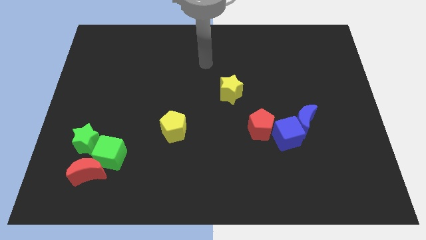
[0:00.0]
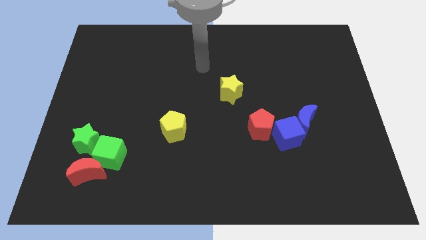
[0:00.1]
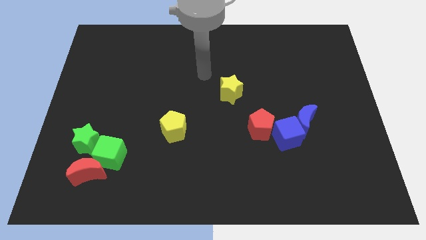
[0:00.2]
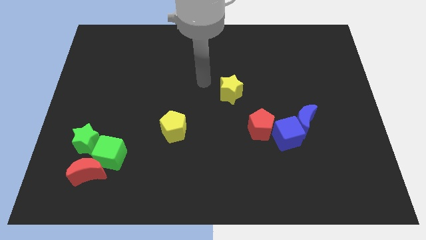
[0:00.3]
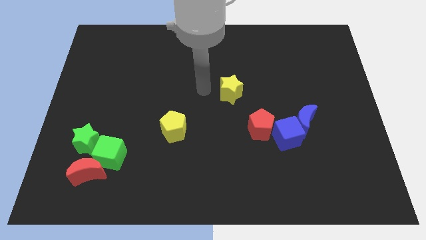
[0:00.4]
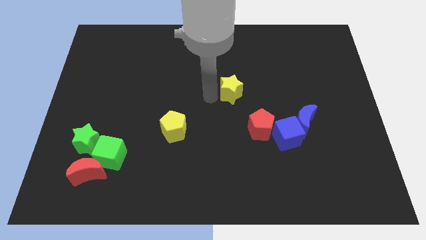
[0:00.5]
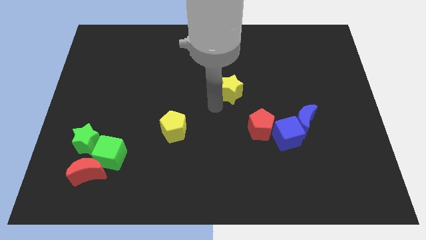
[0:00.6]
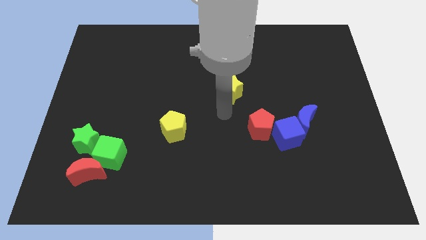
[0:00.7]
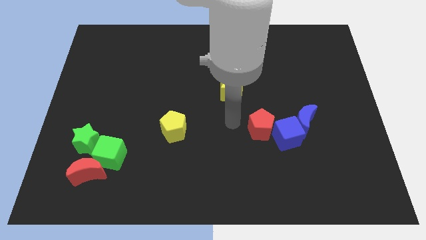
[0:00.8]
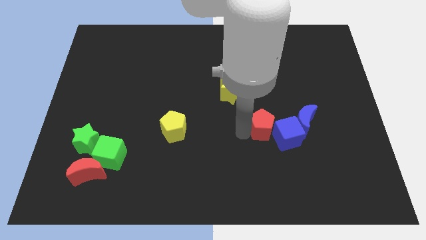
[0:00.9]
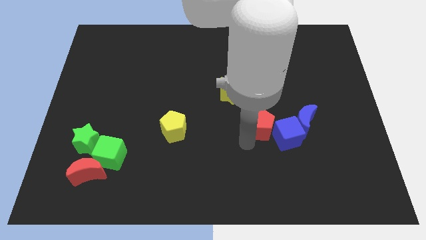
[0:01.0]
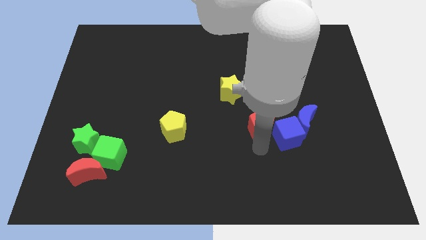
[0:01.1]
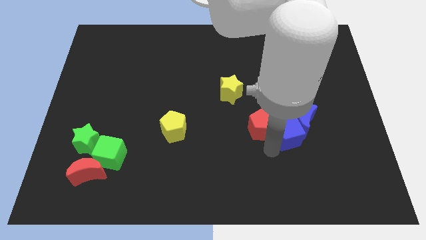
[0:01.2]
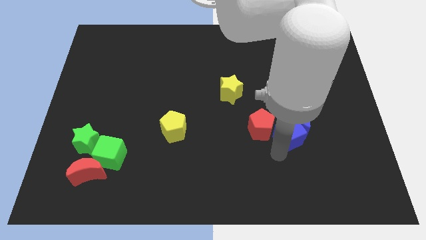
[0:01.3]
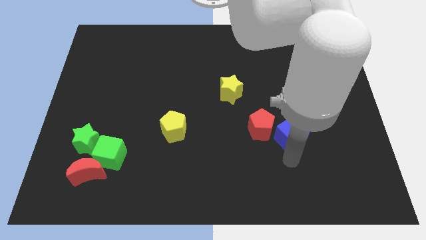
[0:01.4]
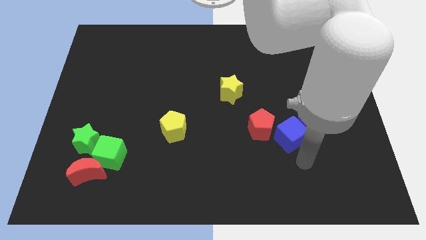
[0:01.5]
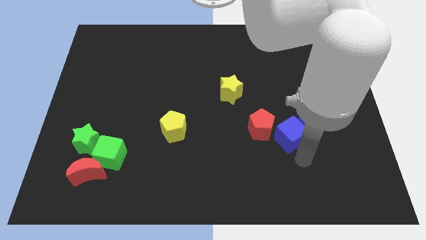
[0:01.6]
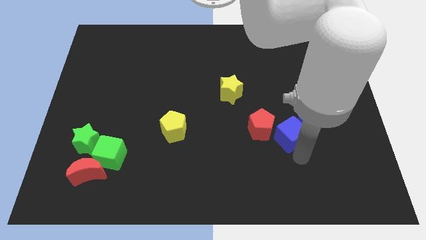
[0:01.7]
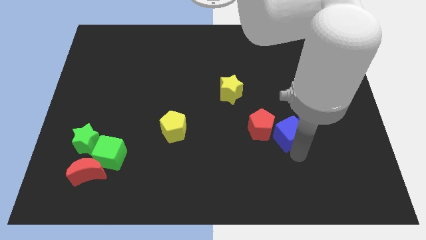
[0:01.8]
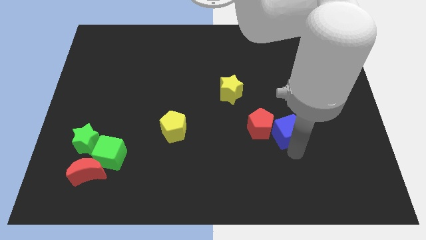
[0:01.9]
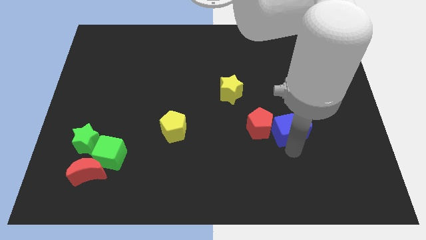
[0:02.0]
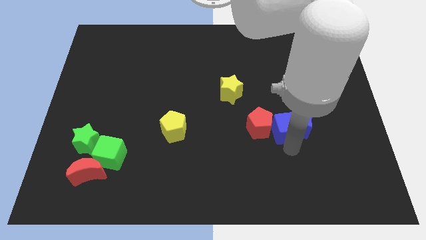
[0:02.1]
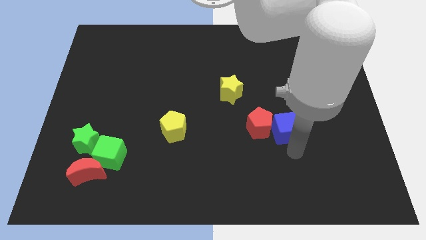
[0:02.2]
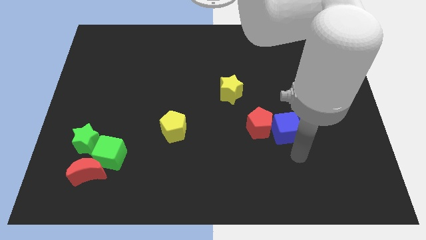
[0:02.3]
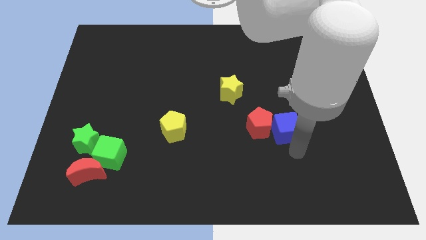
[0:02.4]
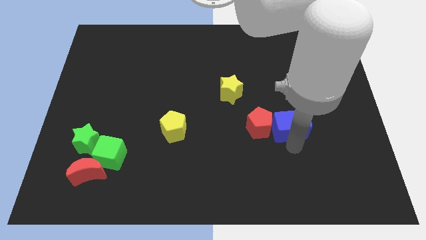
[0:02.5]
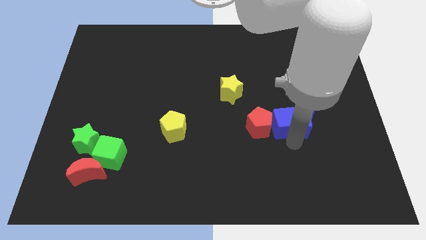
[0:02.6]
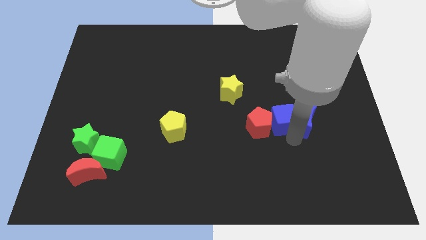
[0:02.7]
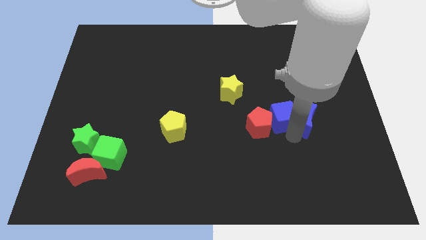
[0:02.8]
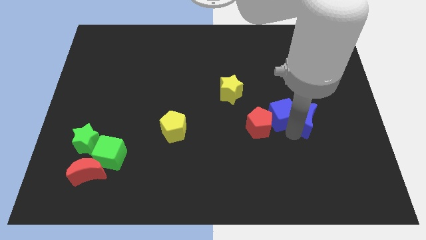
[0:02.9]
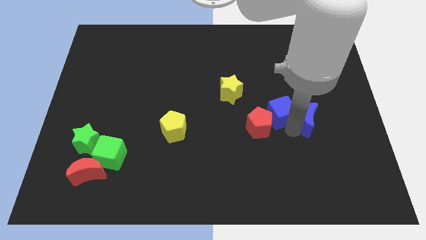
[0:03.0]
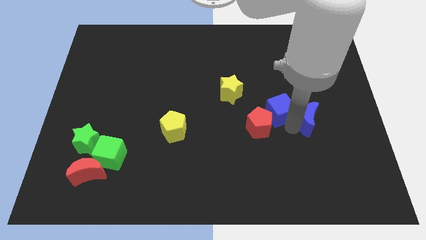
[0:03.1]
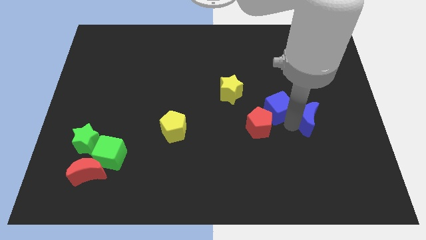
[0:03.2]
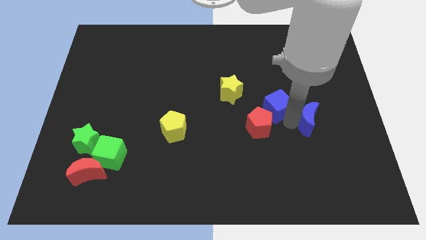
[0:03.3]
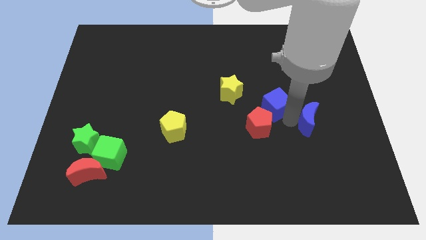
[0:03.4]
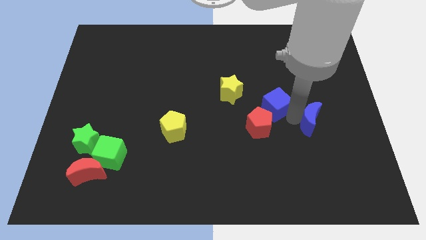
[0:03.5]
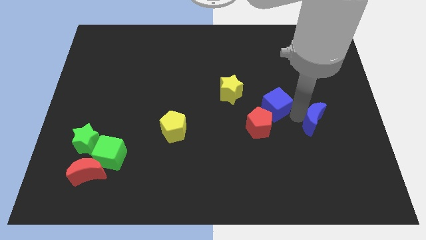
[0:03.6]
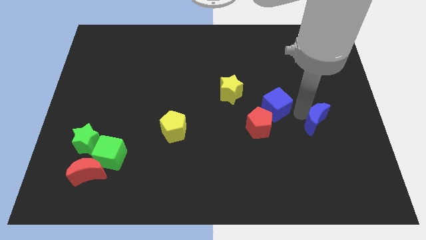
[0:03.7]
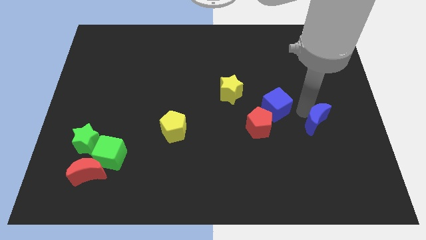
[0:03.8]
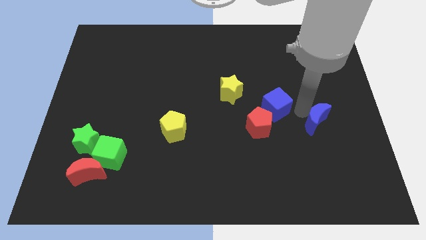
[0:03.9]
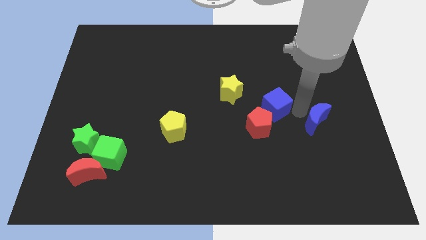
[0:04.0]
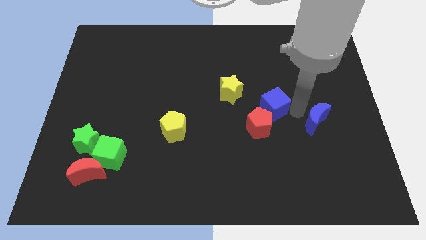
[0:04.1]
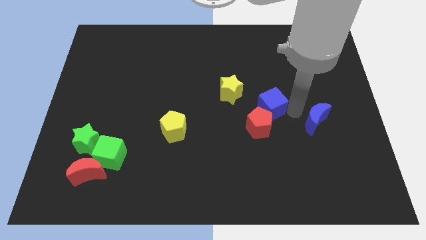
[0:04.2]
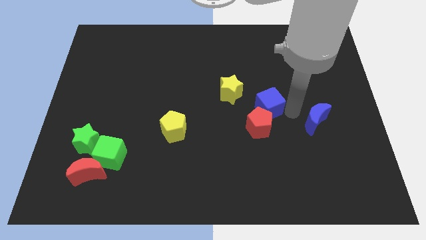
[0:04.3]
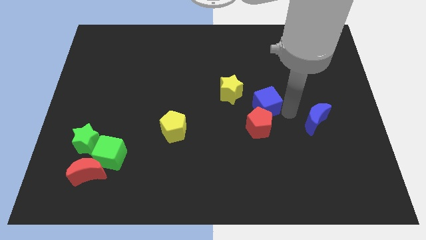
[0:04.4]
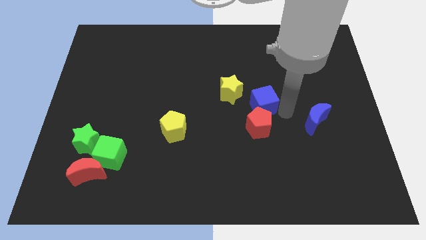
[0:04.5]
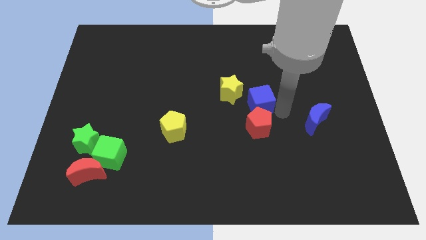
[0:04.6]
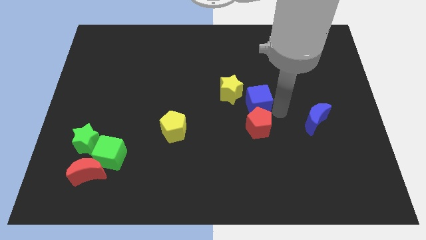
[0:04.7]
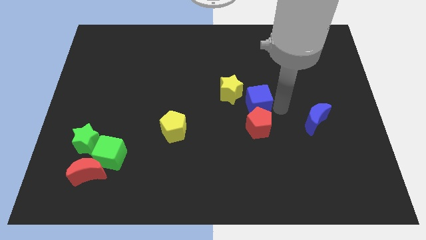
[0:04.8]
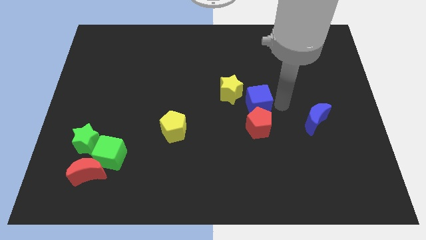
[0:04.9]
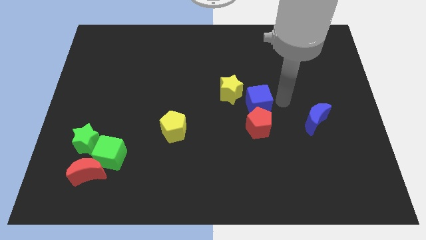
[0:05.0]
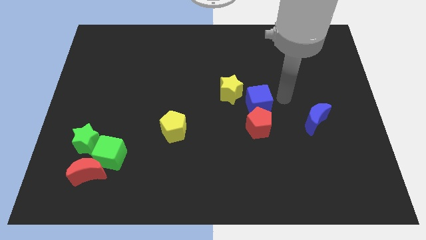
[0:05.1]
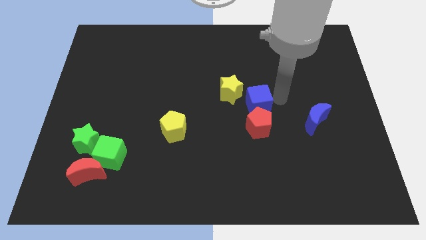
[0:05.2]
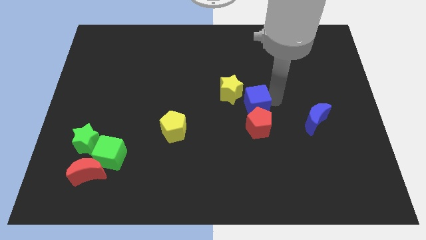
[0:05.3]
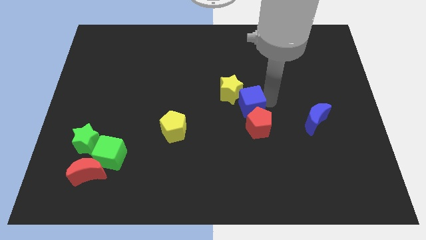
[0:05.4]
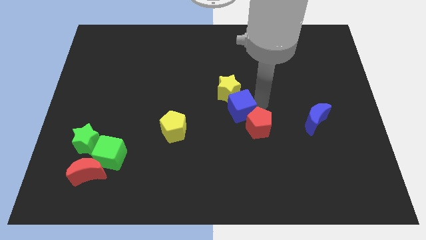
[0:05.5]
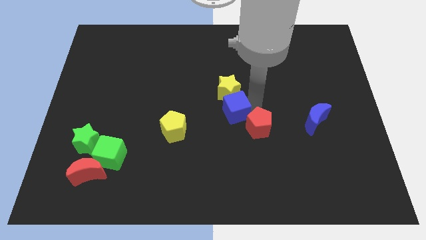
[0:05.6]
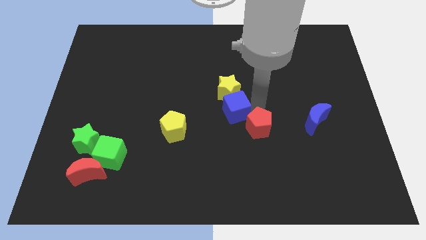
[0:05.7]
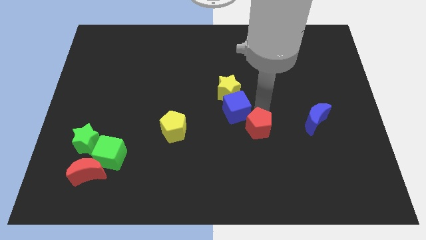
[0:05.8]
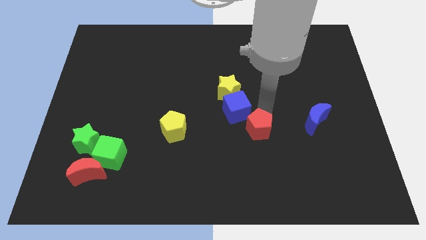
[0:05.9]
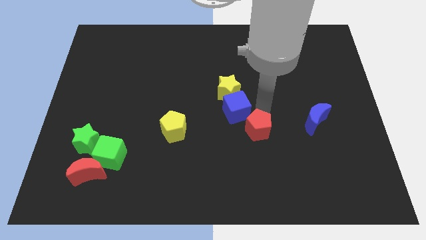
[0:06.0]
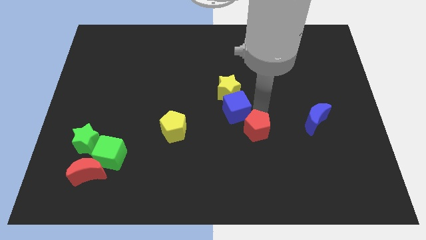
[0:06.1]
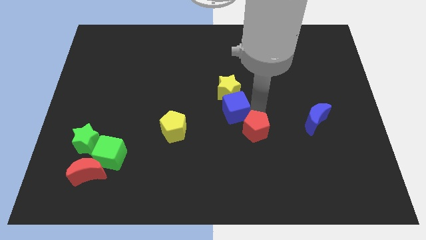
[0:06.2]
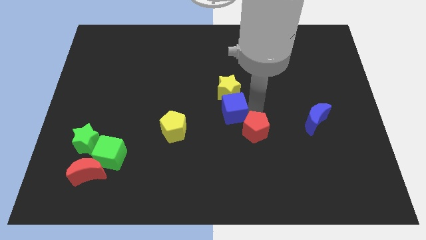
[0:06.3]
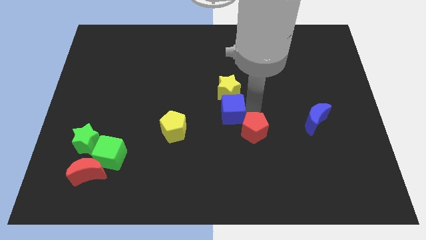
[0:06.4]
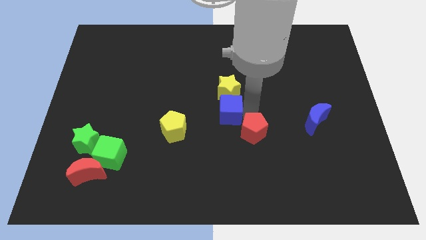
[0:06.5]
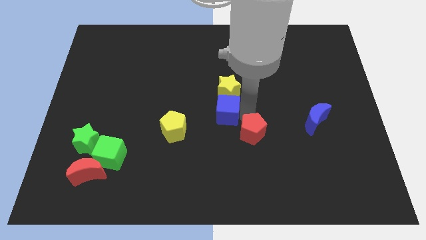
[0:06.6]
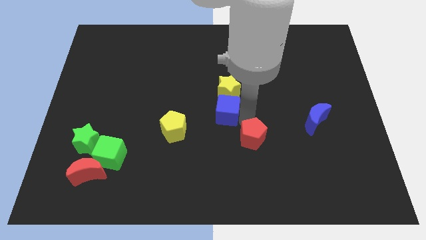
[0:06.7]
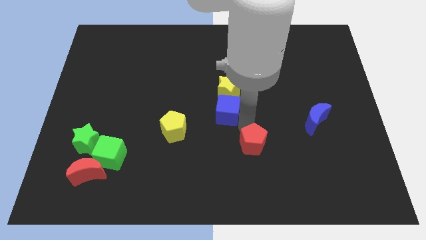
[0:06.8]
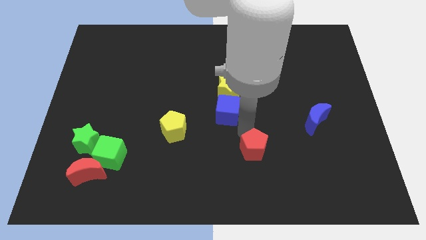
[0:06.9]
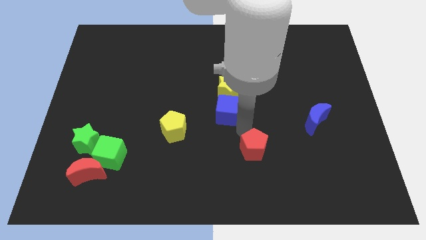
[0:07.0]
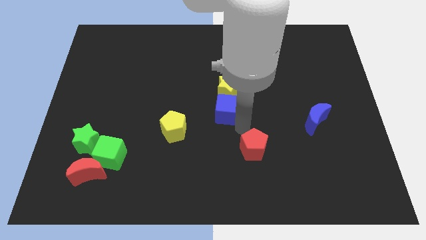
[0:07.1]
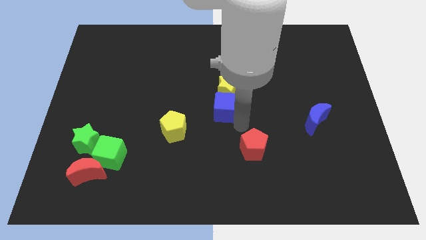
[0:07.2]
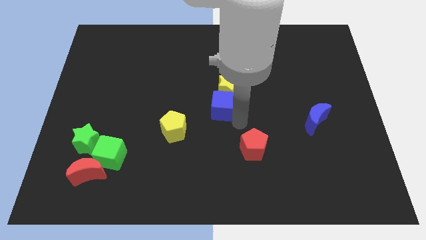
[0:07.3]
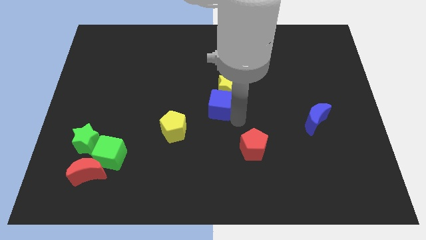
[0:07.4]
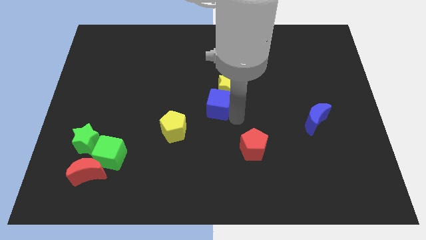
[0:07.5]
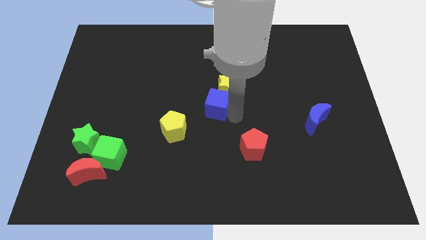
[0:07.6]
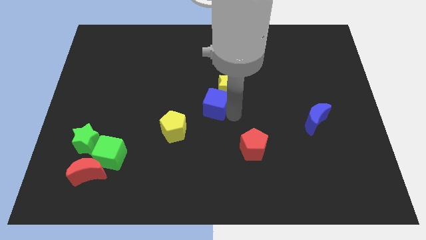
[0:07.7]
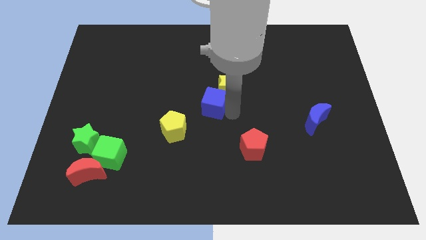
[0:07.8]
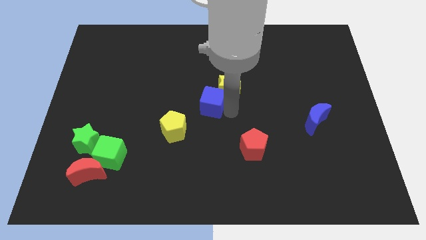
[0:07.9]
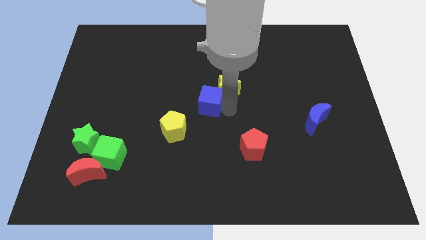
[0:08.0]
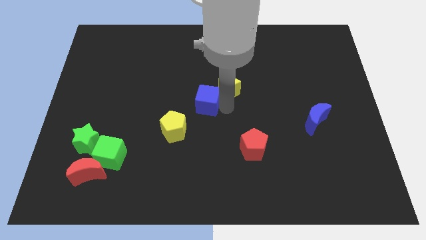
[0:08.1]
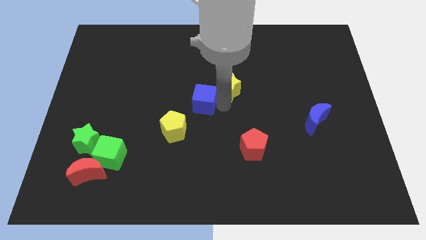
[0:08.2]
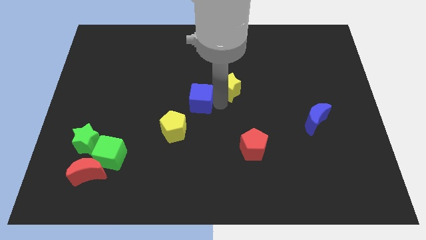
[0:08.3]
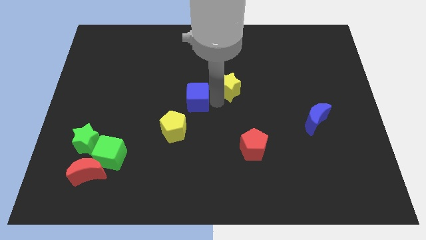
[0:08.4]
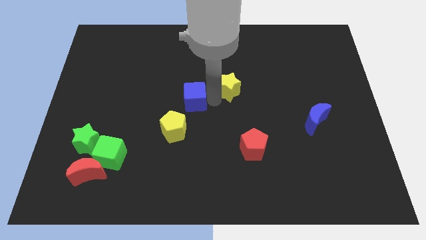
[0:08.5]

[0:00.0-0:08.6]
push the blue cube up and to the left diagonally
